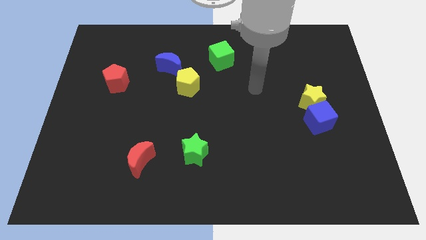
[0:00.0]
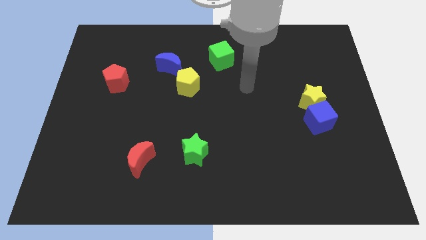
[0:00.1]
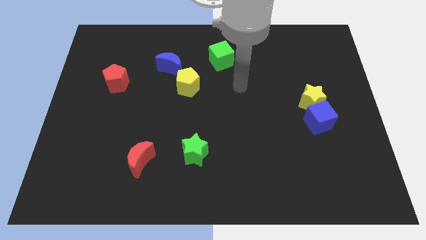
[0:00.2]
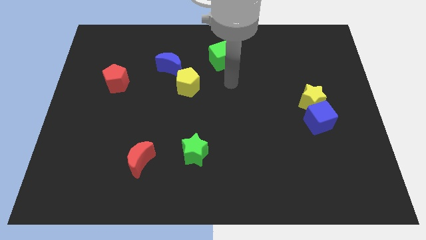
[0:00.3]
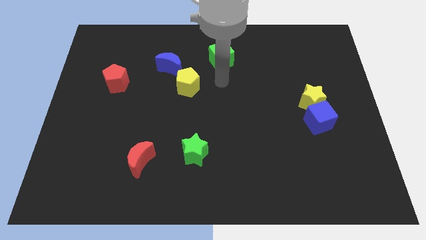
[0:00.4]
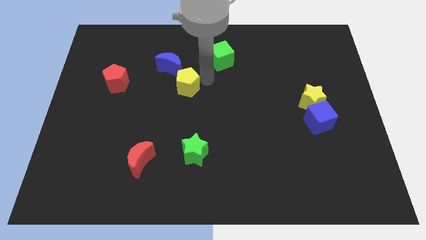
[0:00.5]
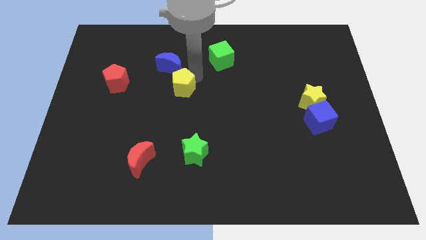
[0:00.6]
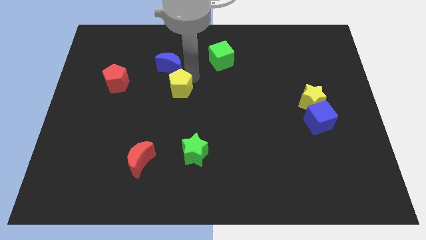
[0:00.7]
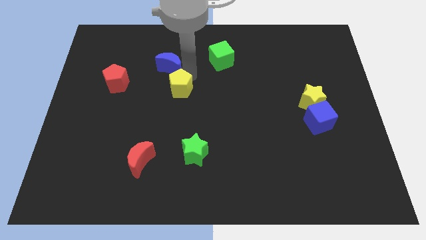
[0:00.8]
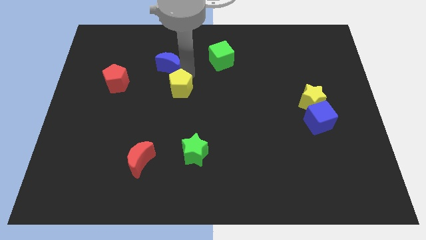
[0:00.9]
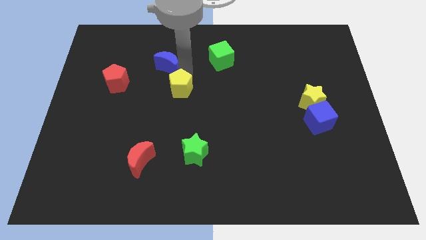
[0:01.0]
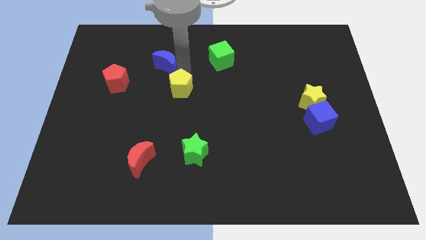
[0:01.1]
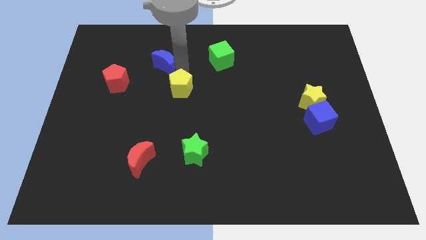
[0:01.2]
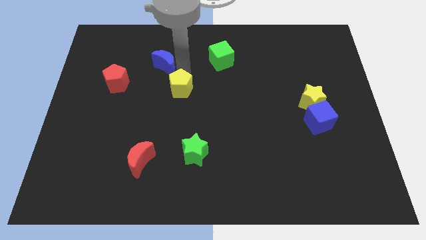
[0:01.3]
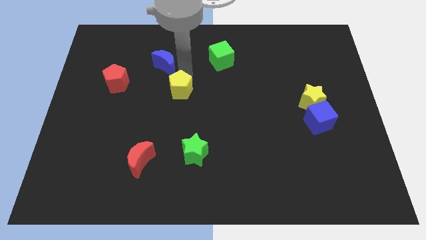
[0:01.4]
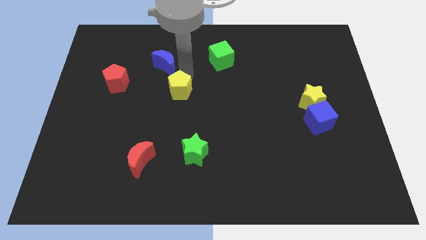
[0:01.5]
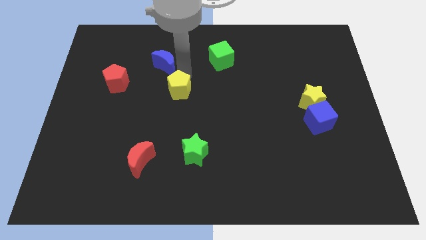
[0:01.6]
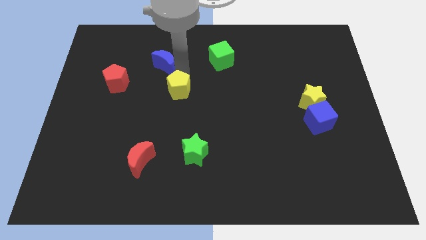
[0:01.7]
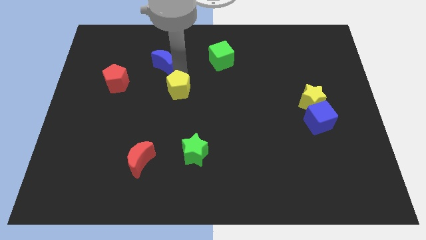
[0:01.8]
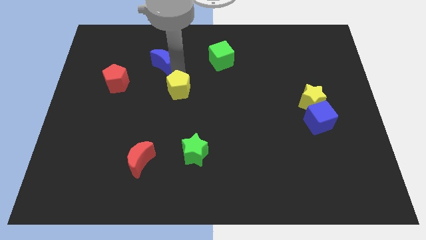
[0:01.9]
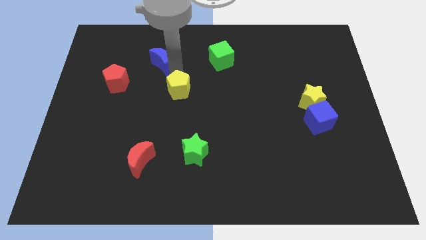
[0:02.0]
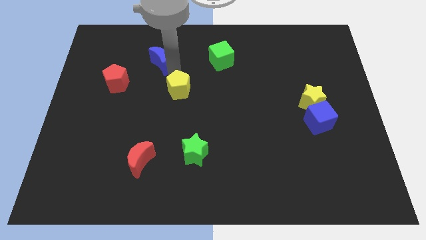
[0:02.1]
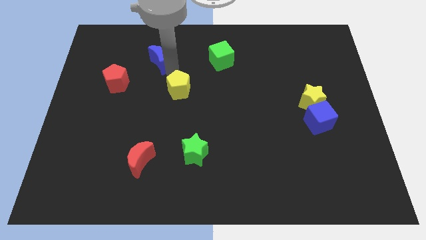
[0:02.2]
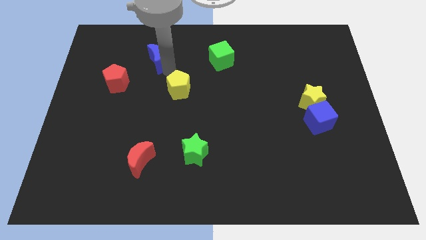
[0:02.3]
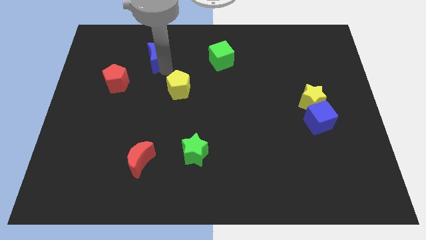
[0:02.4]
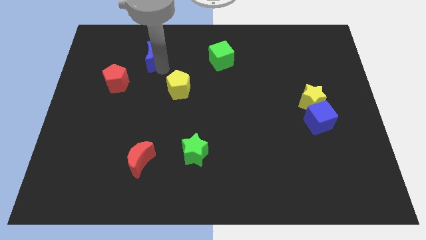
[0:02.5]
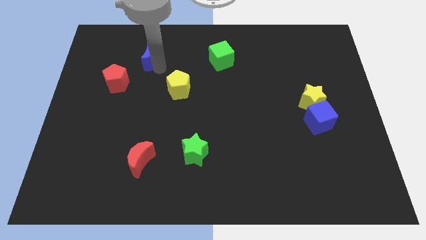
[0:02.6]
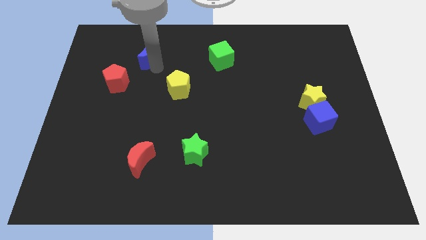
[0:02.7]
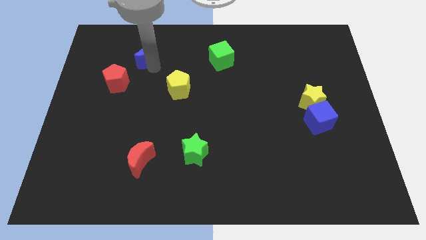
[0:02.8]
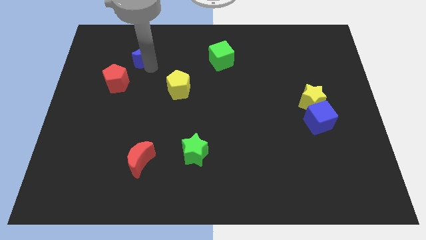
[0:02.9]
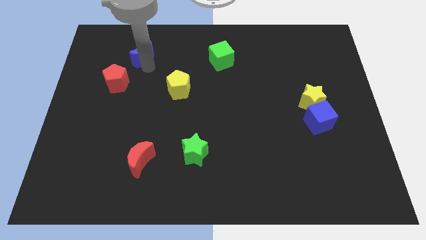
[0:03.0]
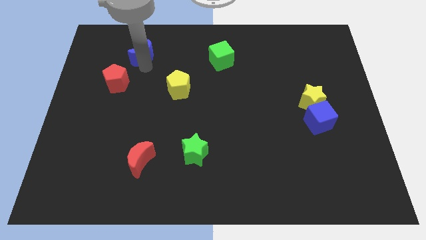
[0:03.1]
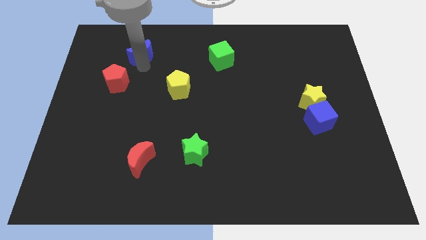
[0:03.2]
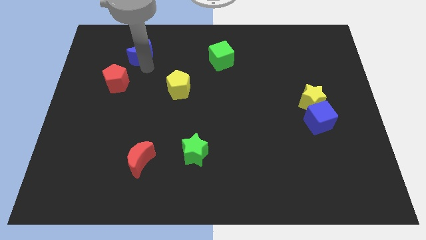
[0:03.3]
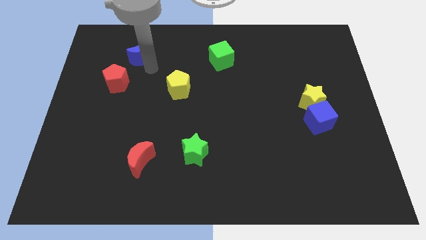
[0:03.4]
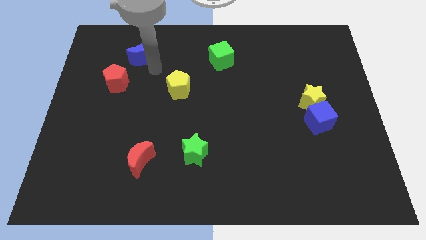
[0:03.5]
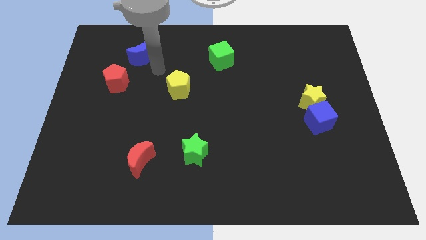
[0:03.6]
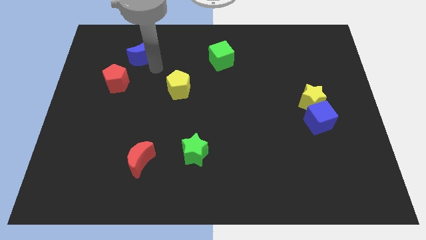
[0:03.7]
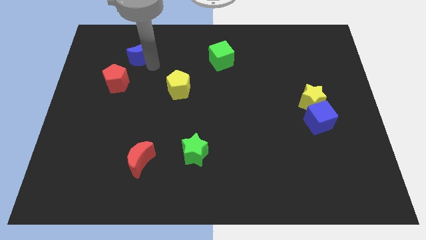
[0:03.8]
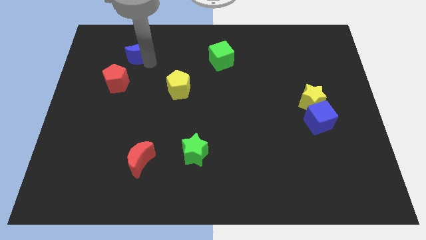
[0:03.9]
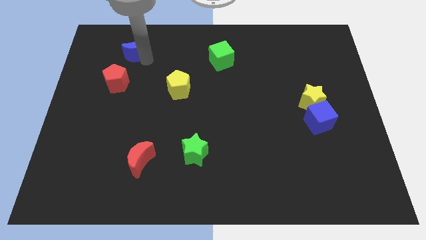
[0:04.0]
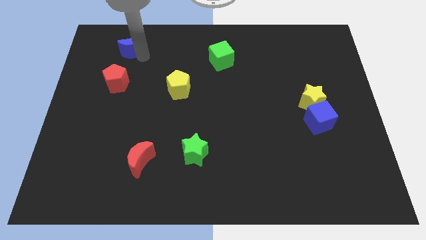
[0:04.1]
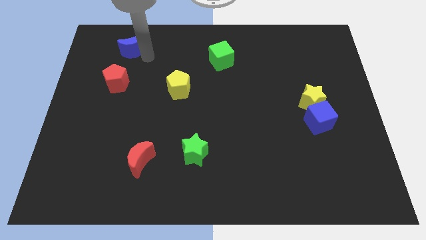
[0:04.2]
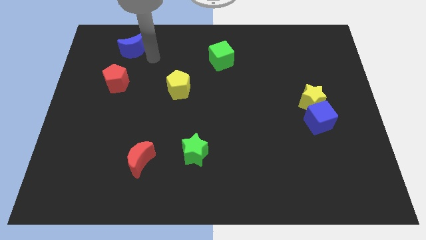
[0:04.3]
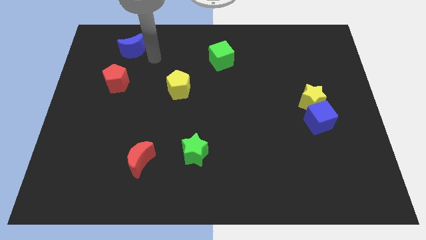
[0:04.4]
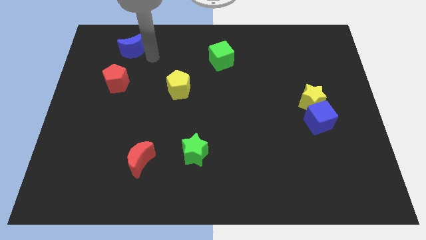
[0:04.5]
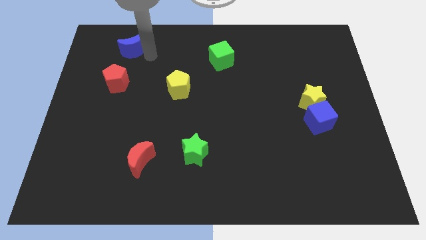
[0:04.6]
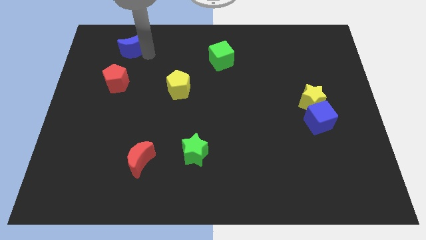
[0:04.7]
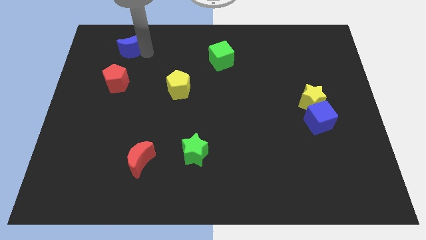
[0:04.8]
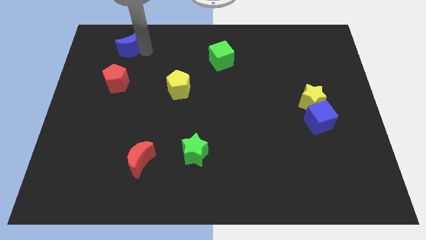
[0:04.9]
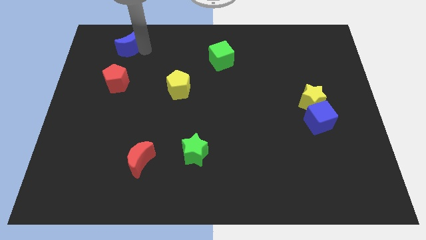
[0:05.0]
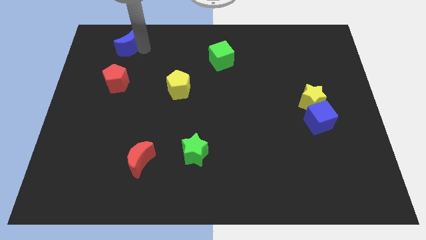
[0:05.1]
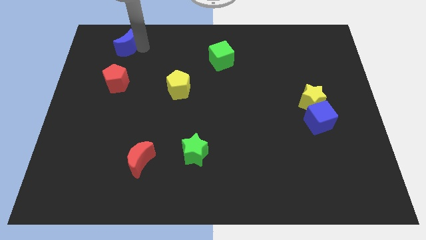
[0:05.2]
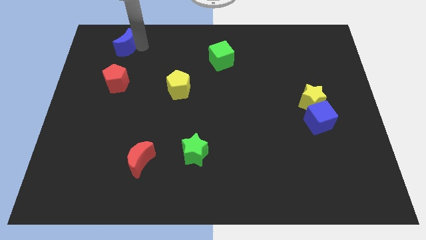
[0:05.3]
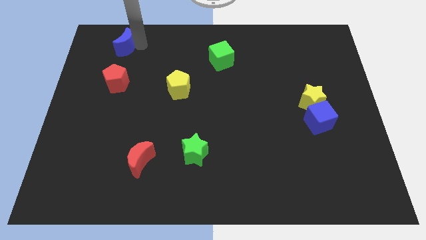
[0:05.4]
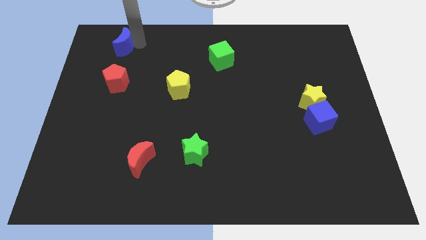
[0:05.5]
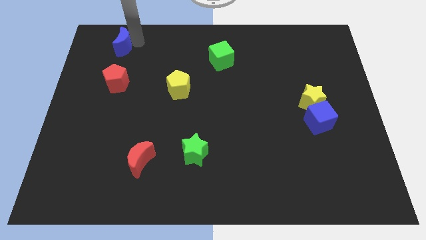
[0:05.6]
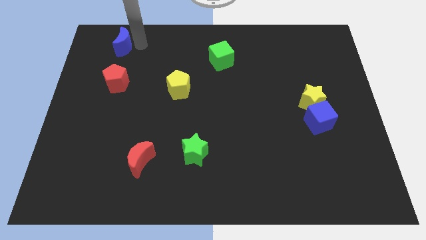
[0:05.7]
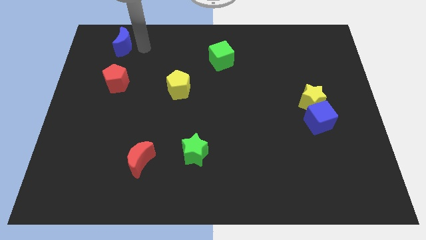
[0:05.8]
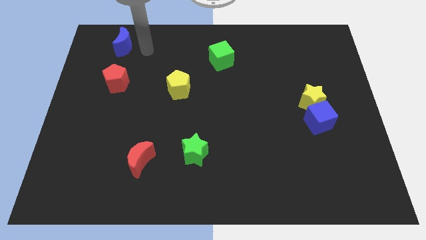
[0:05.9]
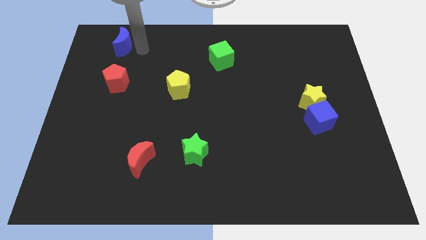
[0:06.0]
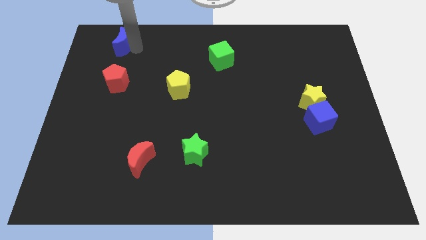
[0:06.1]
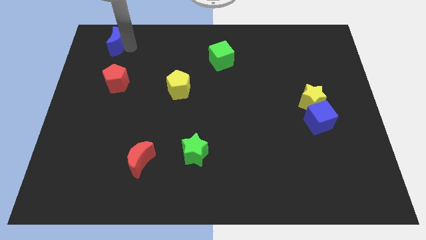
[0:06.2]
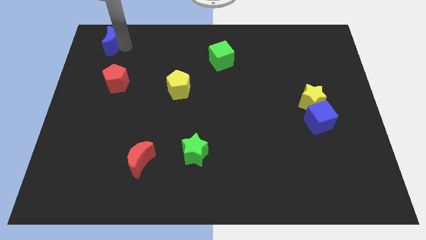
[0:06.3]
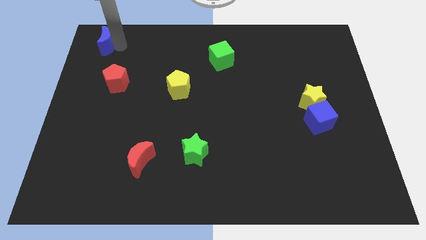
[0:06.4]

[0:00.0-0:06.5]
put the blue moon to the upper left corner
